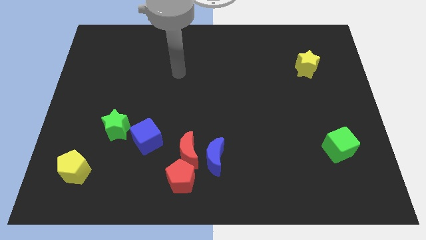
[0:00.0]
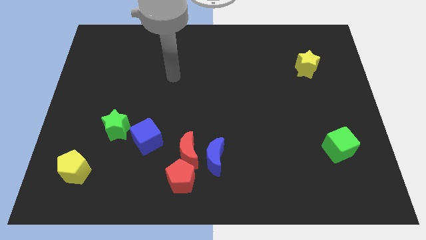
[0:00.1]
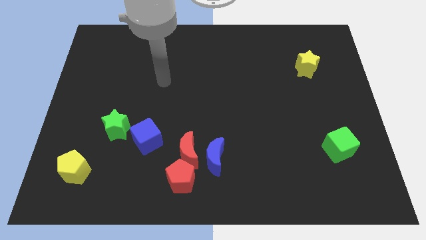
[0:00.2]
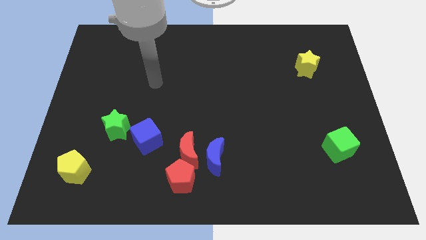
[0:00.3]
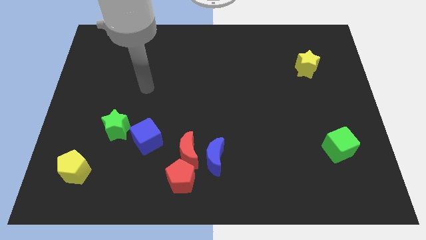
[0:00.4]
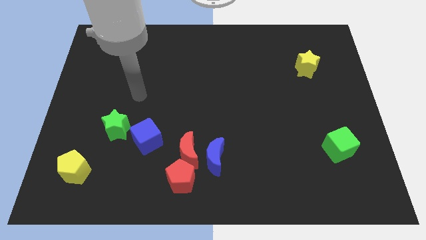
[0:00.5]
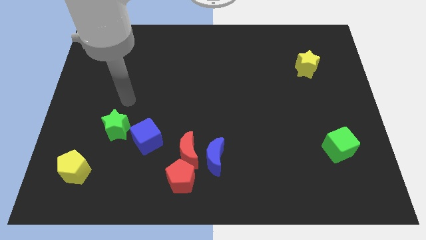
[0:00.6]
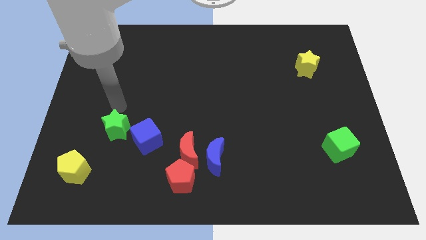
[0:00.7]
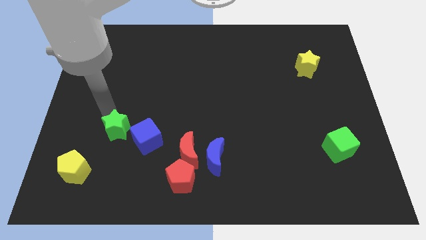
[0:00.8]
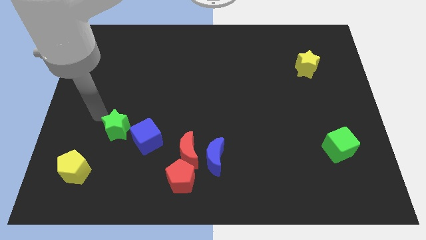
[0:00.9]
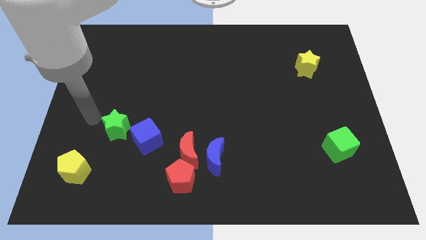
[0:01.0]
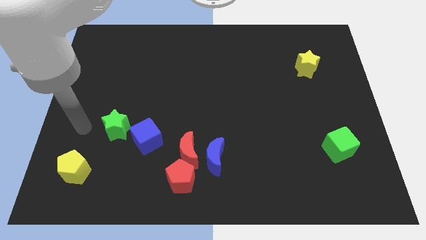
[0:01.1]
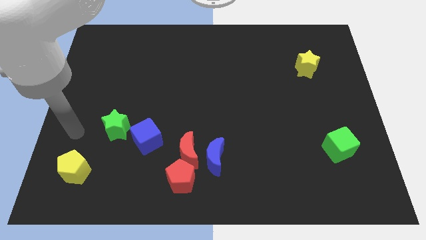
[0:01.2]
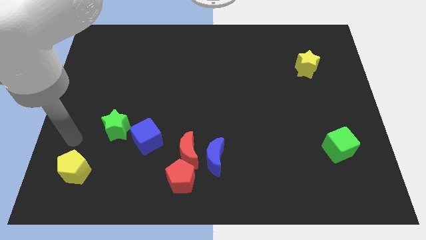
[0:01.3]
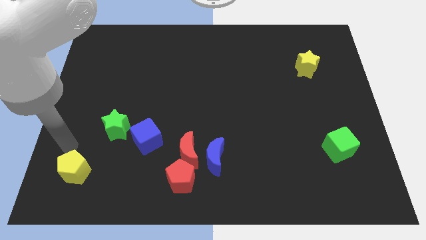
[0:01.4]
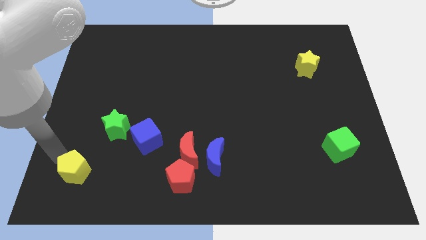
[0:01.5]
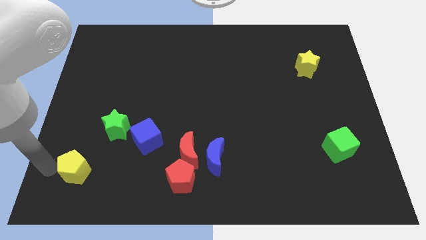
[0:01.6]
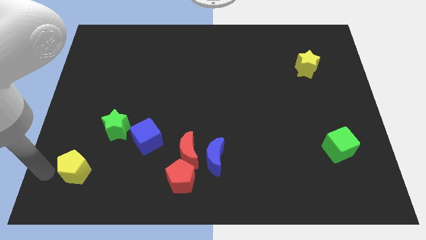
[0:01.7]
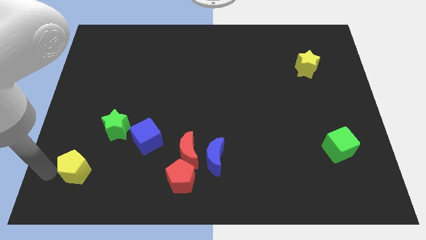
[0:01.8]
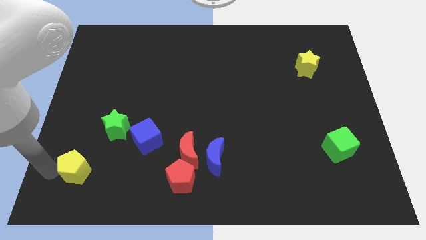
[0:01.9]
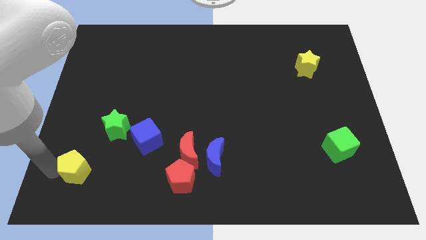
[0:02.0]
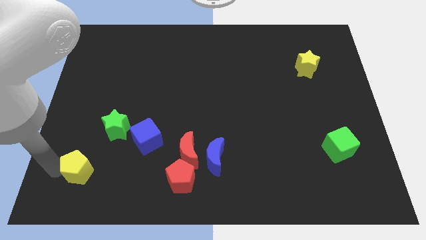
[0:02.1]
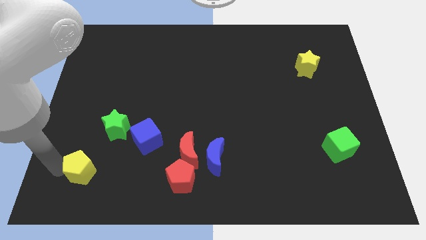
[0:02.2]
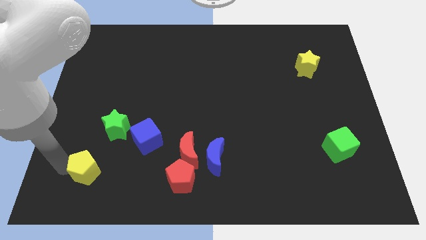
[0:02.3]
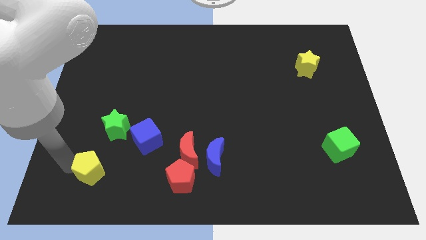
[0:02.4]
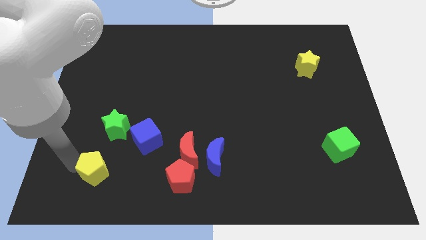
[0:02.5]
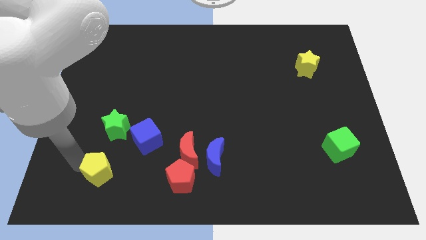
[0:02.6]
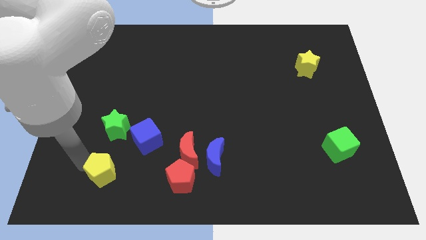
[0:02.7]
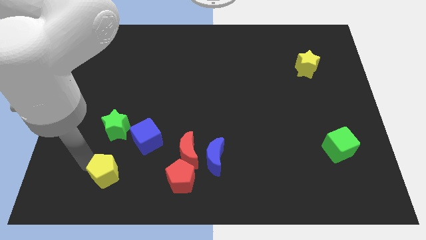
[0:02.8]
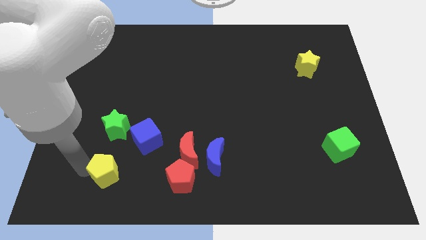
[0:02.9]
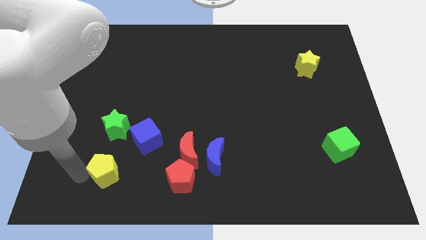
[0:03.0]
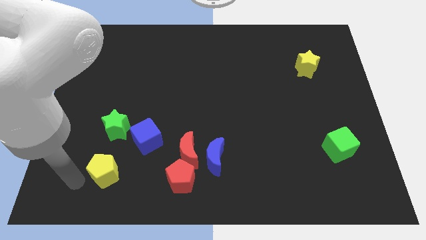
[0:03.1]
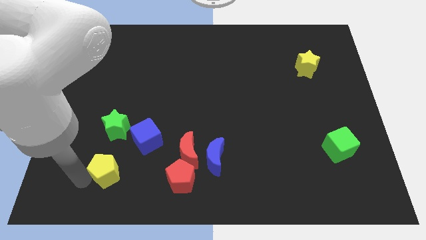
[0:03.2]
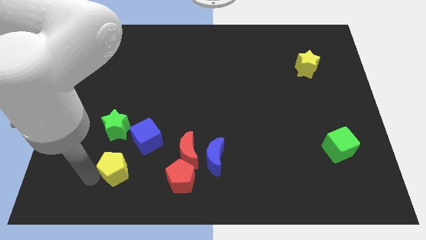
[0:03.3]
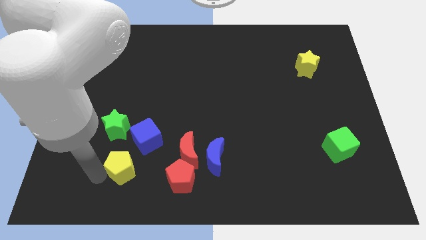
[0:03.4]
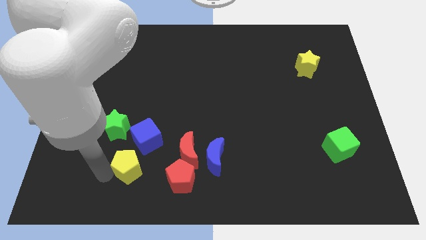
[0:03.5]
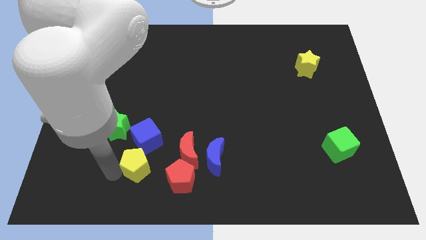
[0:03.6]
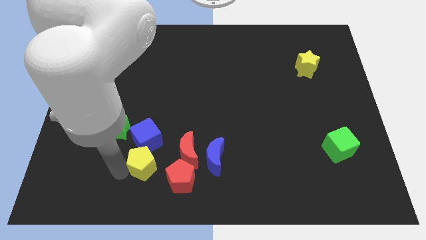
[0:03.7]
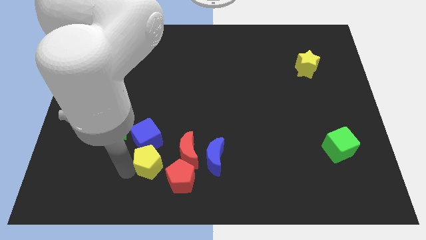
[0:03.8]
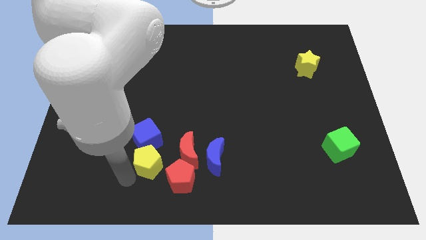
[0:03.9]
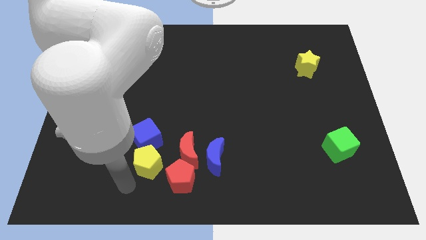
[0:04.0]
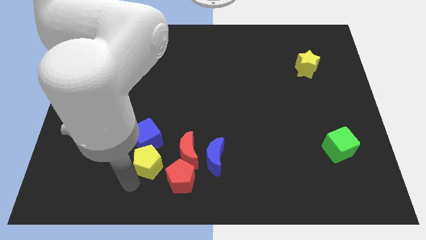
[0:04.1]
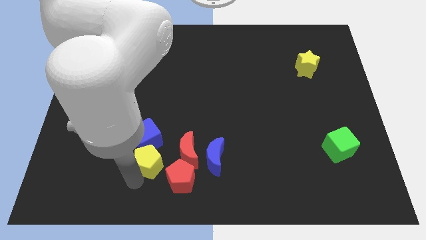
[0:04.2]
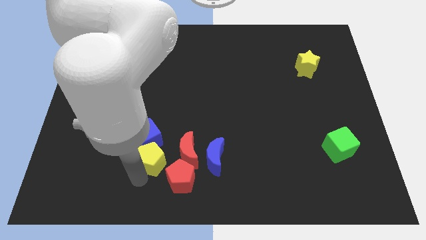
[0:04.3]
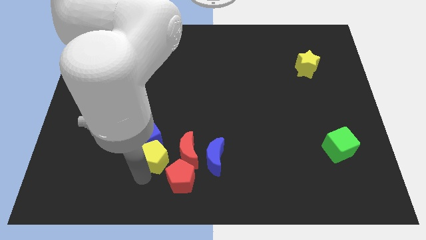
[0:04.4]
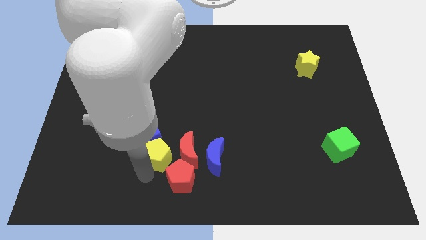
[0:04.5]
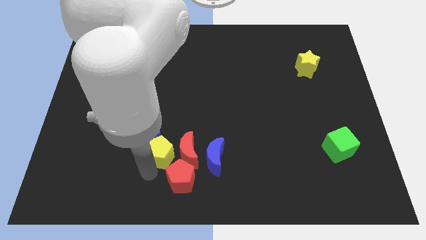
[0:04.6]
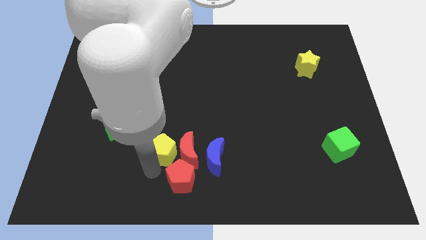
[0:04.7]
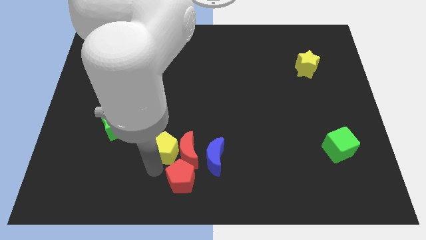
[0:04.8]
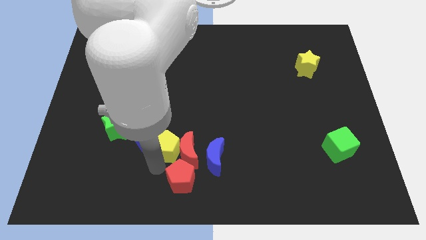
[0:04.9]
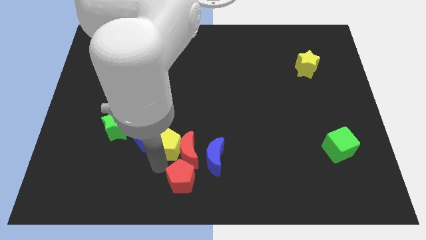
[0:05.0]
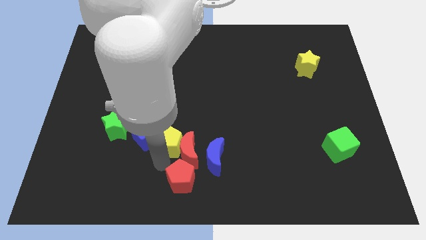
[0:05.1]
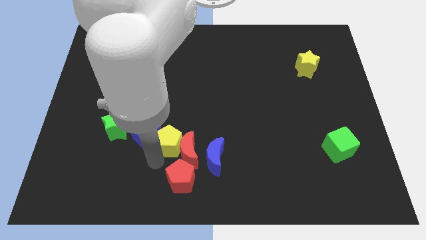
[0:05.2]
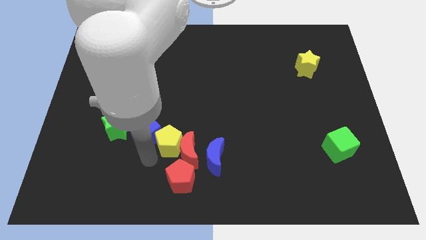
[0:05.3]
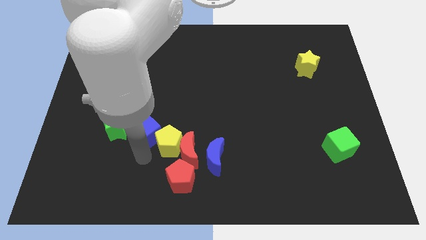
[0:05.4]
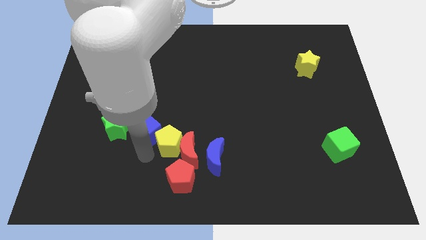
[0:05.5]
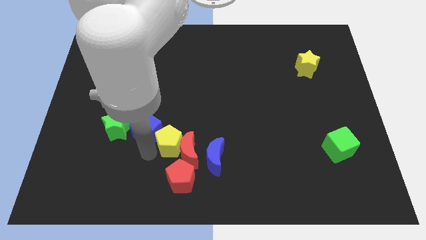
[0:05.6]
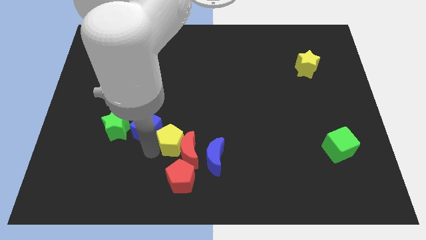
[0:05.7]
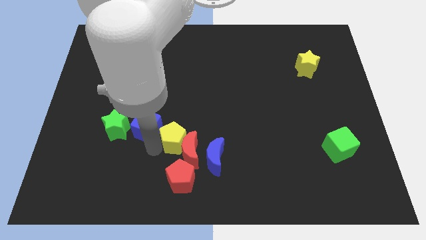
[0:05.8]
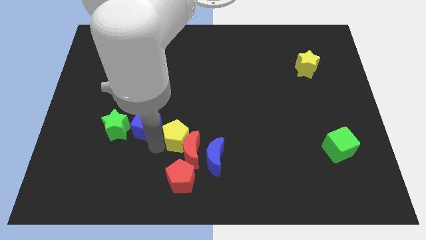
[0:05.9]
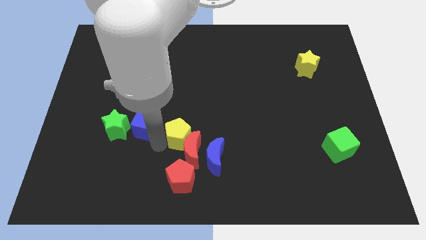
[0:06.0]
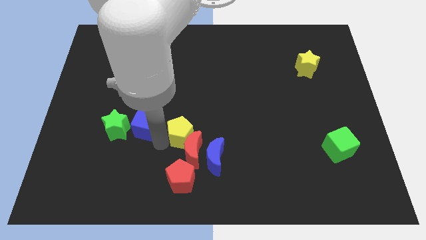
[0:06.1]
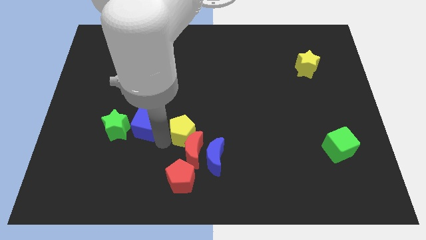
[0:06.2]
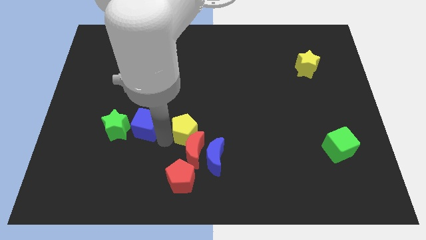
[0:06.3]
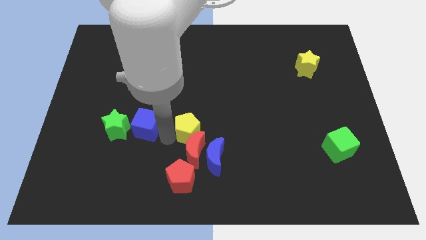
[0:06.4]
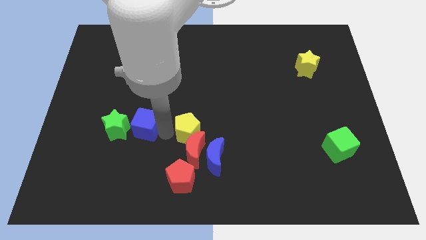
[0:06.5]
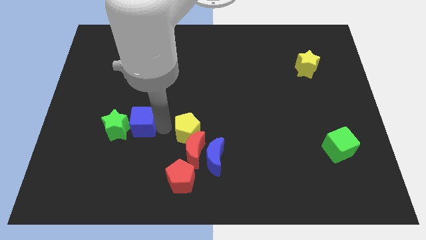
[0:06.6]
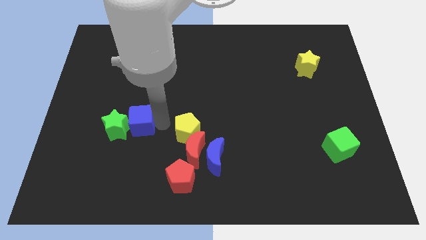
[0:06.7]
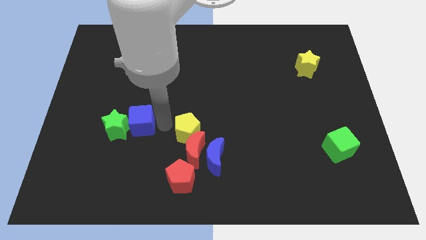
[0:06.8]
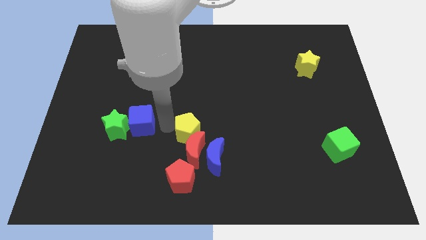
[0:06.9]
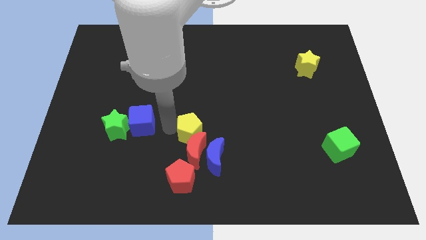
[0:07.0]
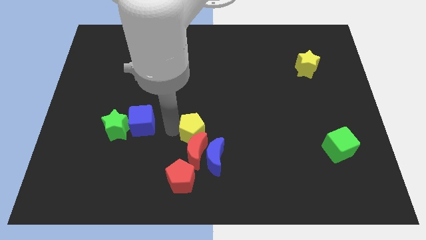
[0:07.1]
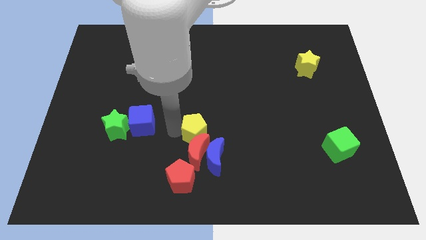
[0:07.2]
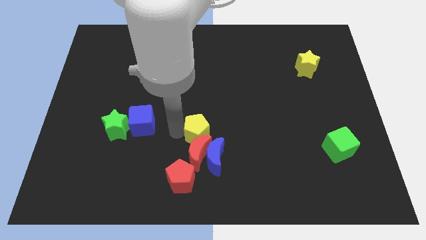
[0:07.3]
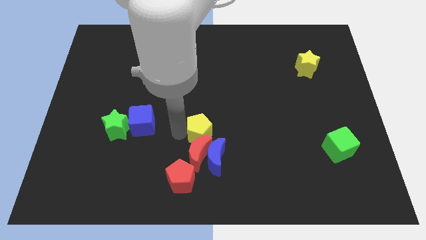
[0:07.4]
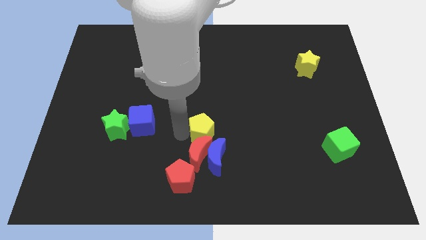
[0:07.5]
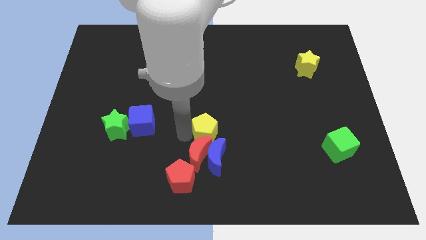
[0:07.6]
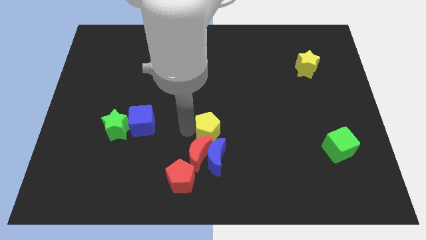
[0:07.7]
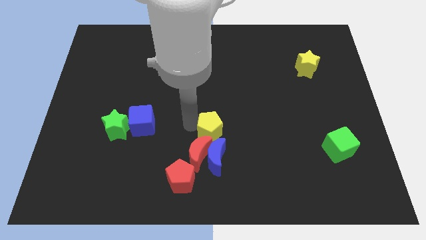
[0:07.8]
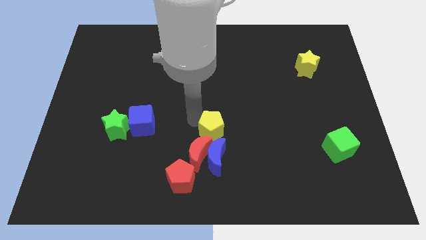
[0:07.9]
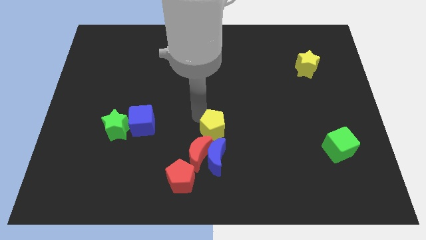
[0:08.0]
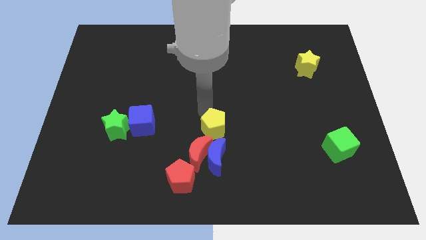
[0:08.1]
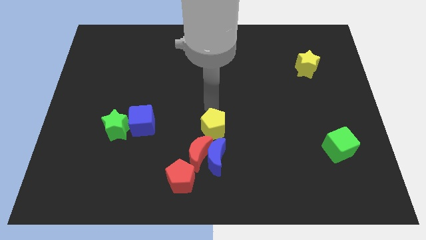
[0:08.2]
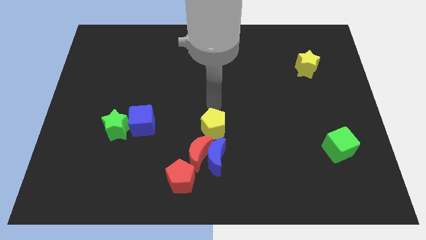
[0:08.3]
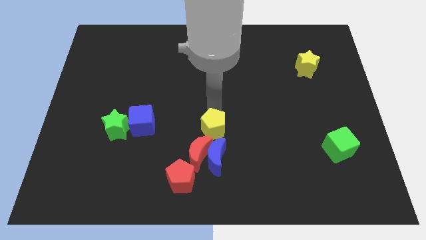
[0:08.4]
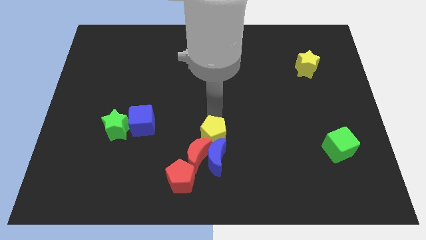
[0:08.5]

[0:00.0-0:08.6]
put the yellow pentagon close to the blue moon
